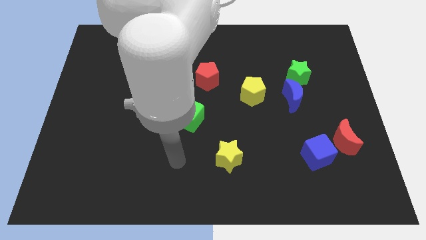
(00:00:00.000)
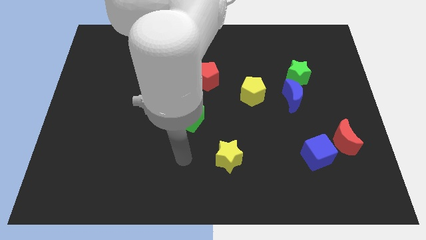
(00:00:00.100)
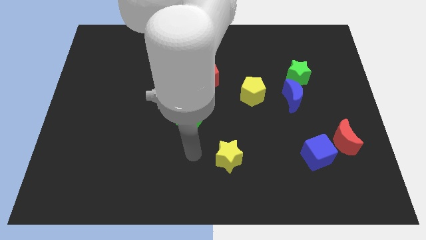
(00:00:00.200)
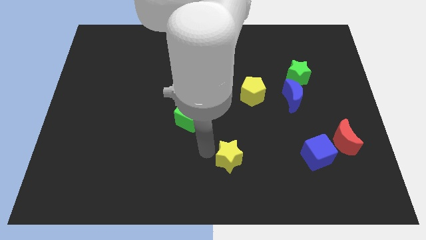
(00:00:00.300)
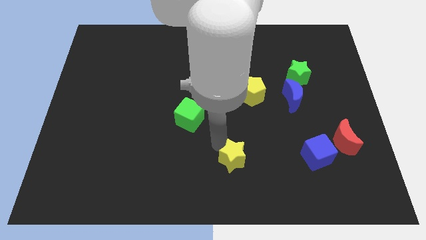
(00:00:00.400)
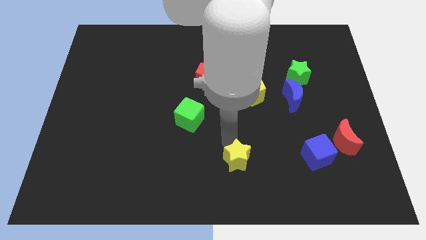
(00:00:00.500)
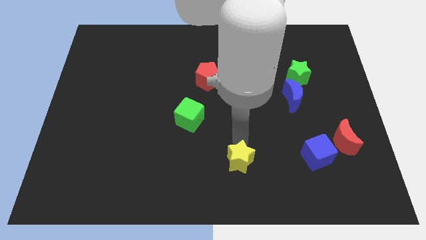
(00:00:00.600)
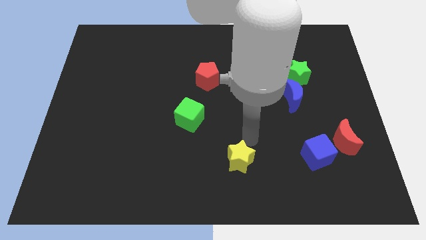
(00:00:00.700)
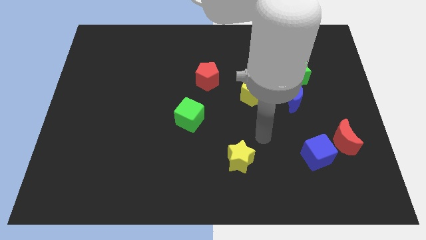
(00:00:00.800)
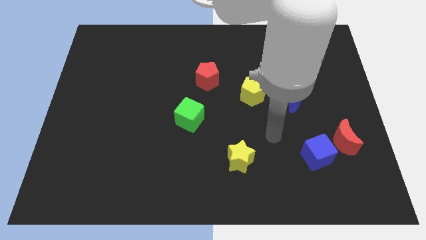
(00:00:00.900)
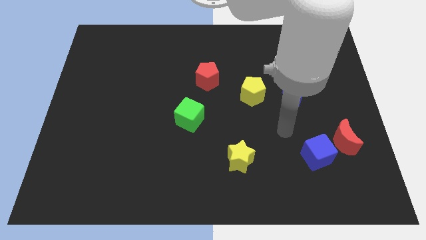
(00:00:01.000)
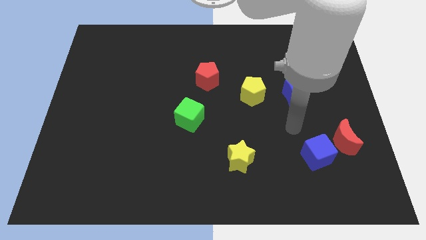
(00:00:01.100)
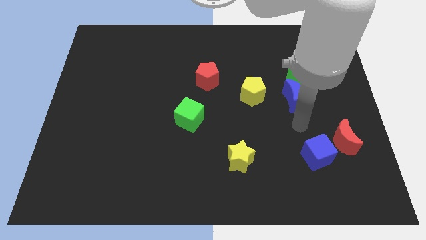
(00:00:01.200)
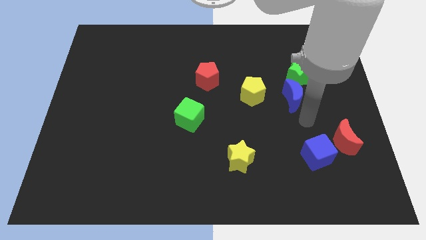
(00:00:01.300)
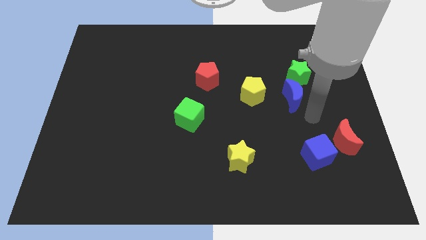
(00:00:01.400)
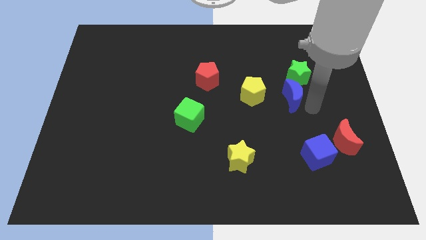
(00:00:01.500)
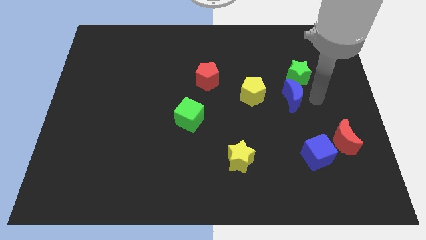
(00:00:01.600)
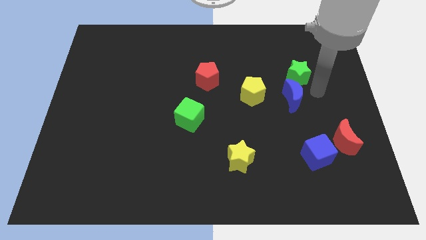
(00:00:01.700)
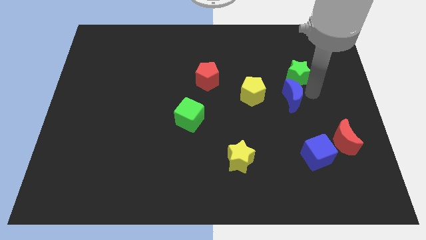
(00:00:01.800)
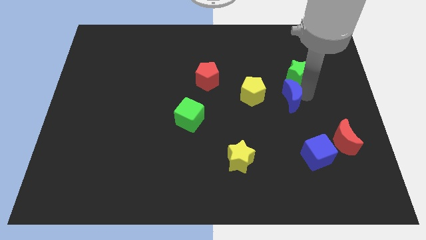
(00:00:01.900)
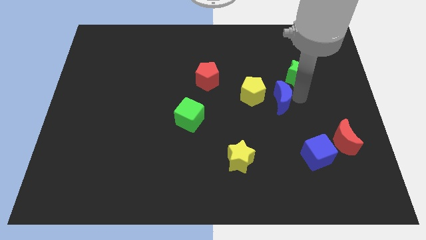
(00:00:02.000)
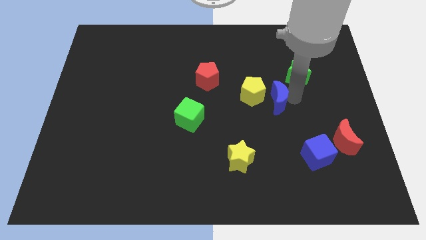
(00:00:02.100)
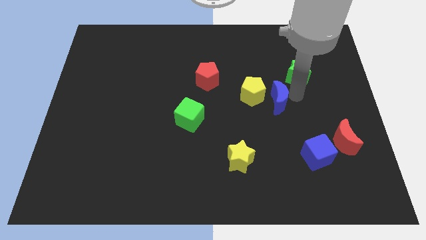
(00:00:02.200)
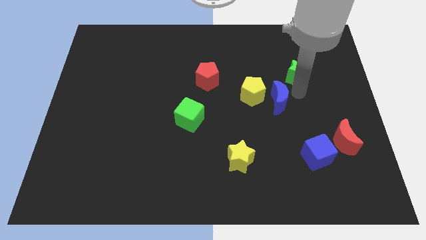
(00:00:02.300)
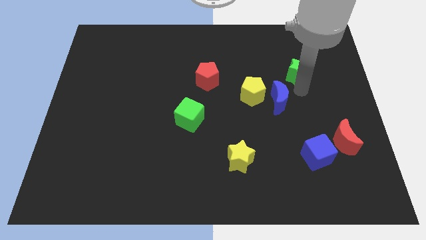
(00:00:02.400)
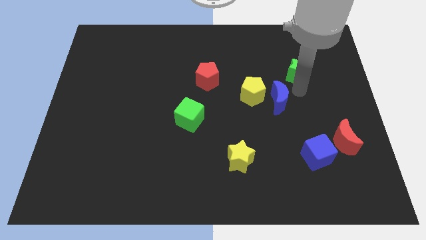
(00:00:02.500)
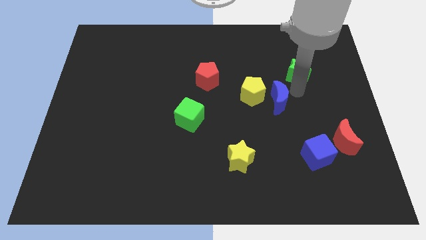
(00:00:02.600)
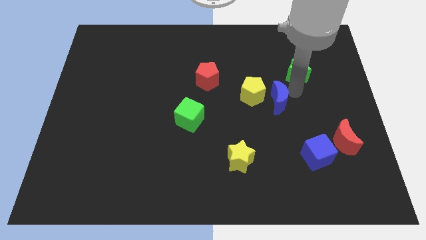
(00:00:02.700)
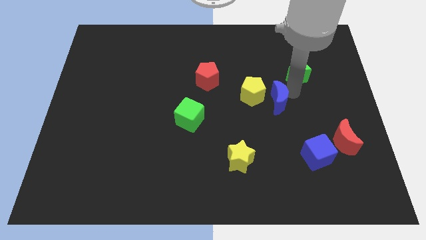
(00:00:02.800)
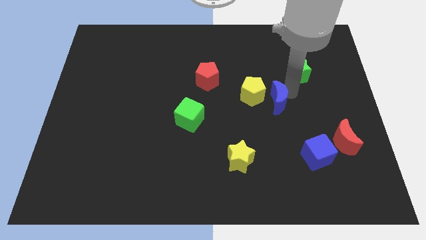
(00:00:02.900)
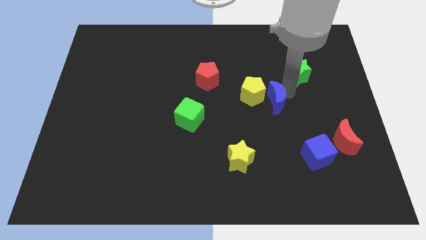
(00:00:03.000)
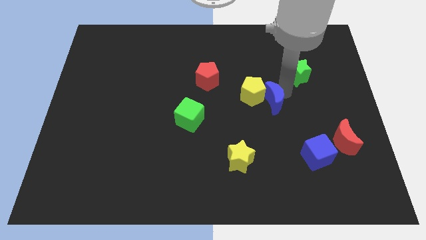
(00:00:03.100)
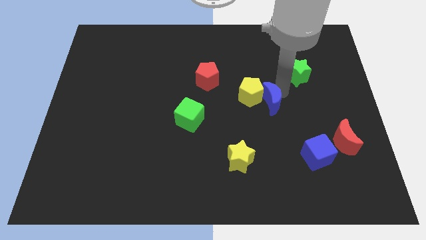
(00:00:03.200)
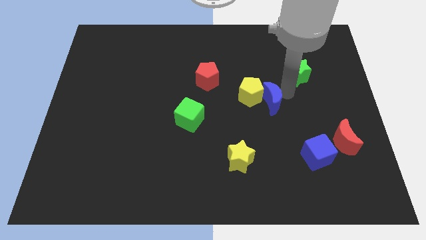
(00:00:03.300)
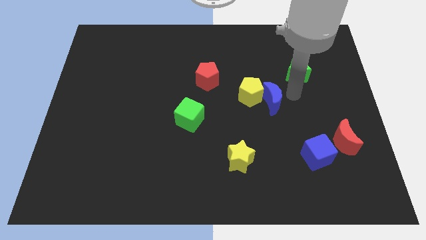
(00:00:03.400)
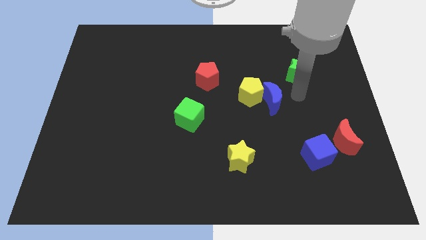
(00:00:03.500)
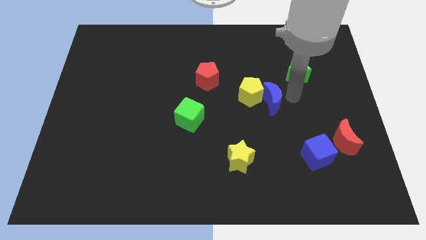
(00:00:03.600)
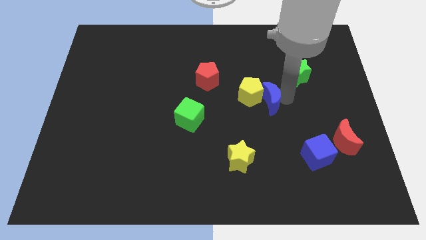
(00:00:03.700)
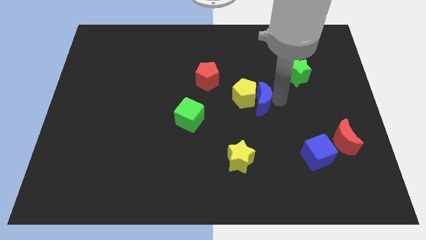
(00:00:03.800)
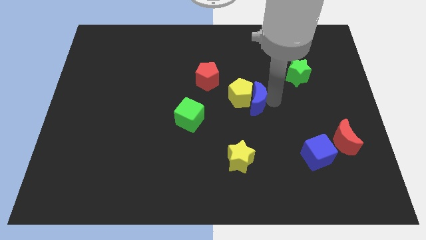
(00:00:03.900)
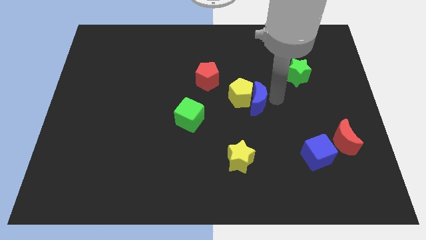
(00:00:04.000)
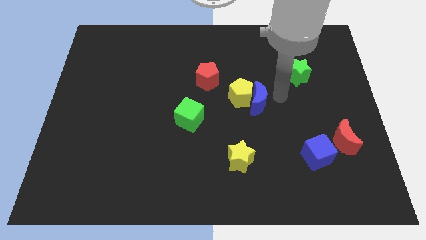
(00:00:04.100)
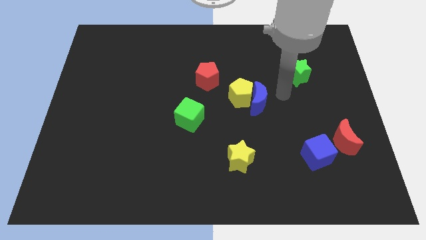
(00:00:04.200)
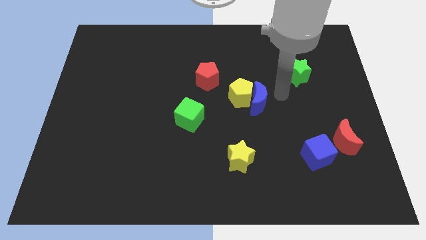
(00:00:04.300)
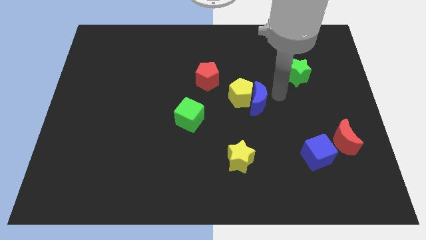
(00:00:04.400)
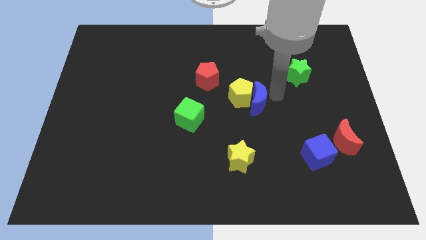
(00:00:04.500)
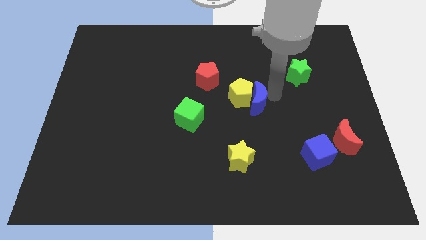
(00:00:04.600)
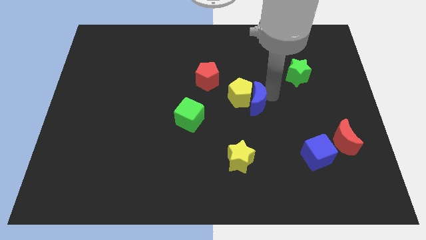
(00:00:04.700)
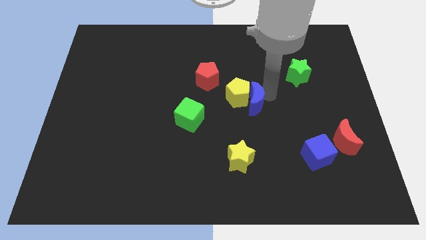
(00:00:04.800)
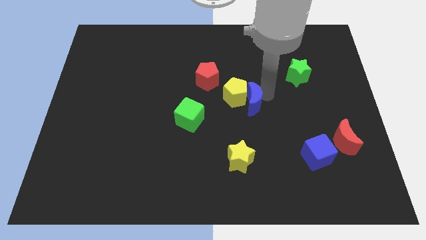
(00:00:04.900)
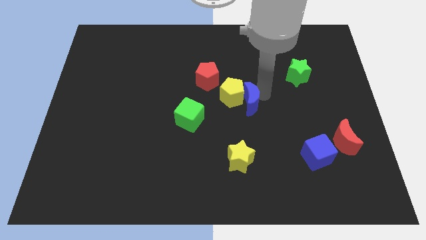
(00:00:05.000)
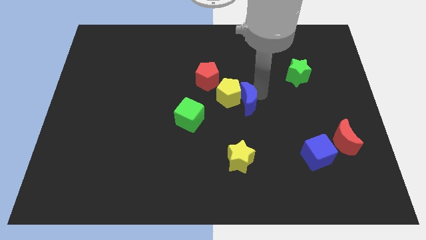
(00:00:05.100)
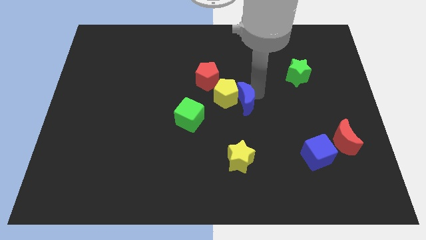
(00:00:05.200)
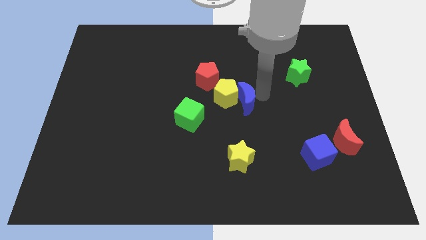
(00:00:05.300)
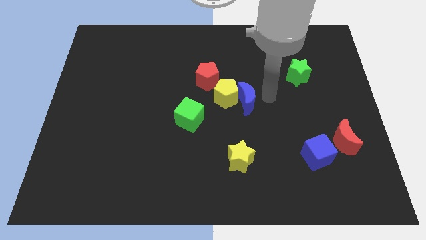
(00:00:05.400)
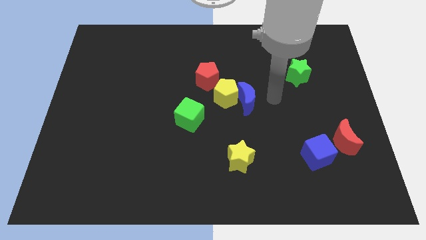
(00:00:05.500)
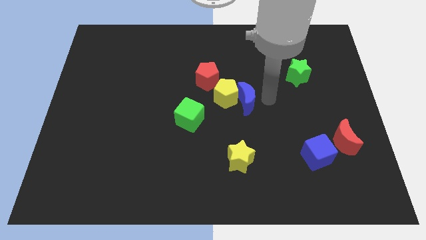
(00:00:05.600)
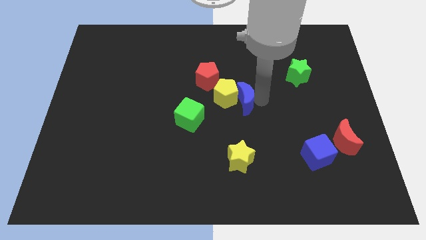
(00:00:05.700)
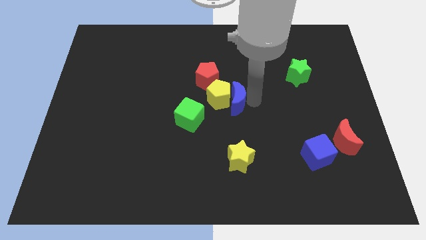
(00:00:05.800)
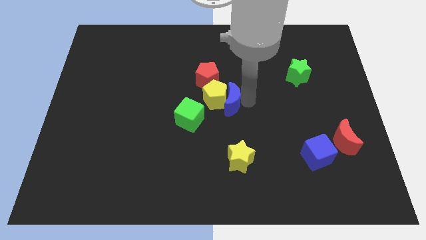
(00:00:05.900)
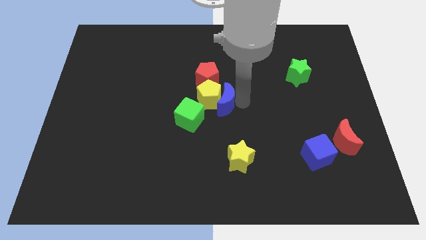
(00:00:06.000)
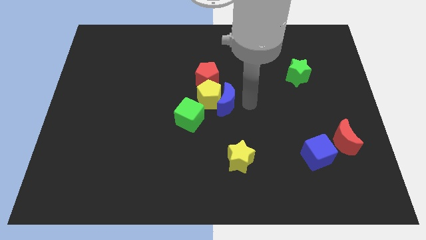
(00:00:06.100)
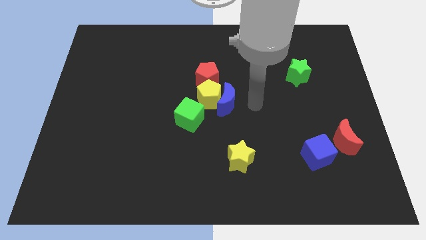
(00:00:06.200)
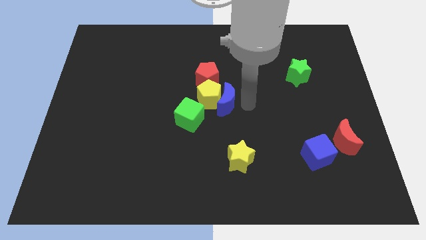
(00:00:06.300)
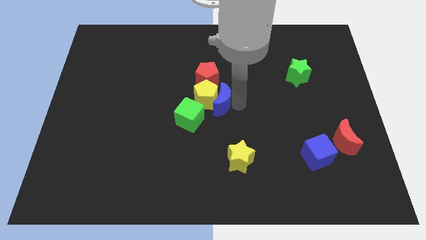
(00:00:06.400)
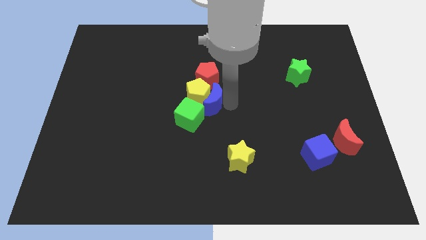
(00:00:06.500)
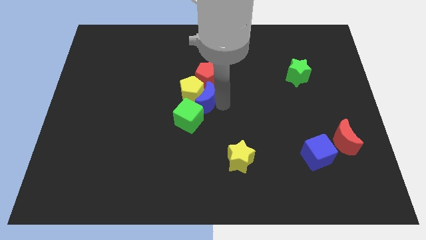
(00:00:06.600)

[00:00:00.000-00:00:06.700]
push the blue moon to the left

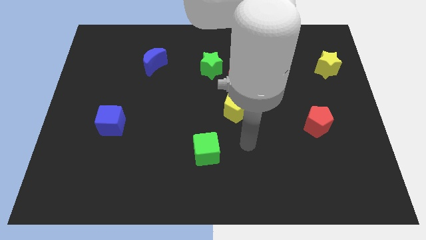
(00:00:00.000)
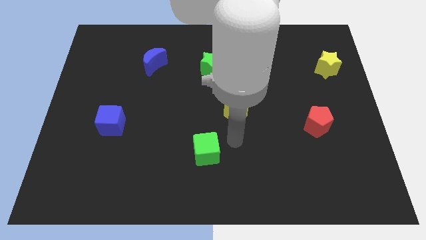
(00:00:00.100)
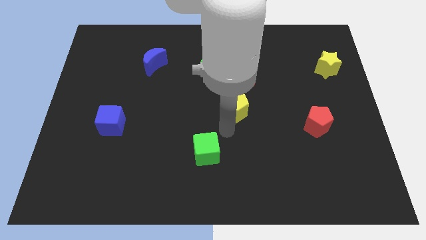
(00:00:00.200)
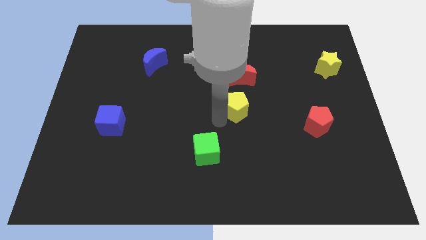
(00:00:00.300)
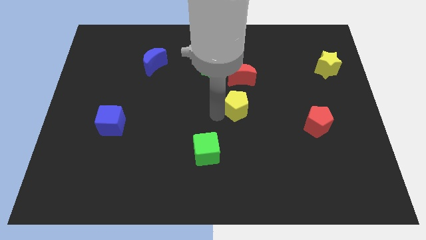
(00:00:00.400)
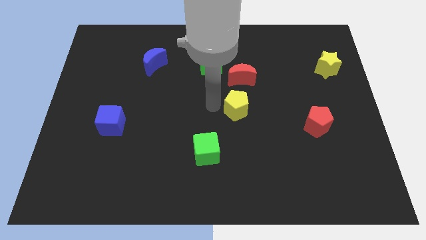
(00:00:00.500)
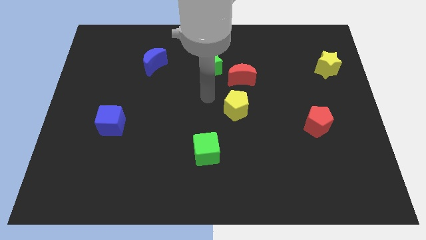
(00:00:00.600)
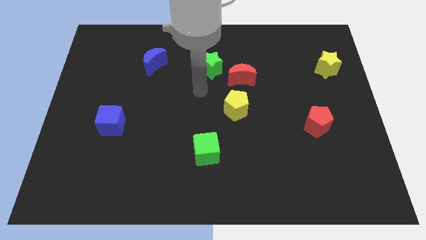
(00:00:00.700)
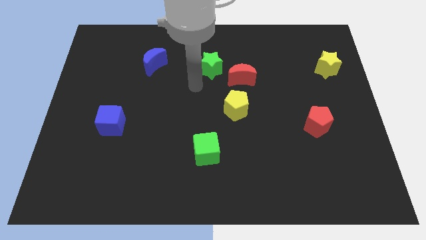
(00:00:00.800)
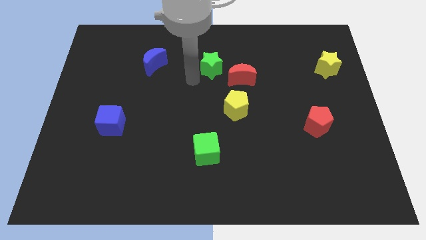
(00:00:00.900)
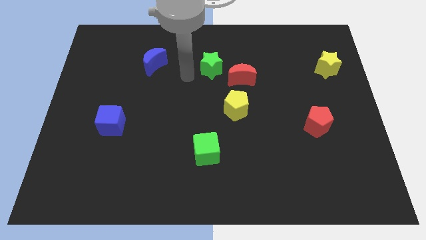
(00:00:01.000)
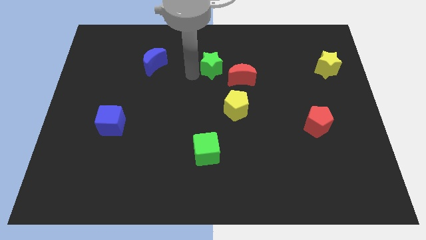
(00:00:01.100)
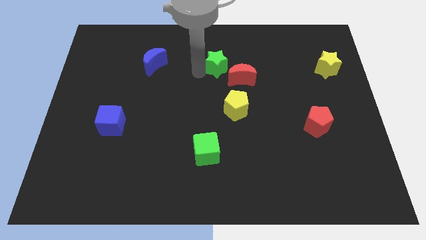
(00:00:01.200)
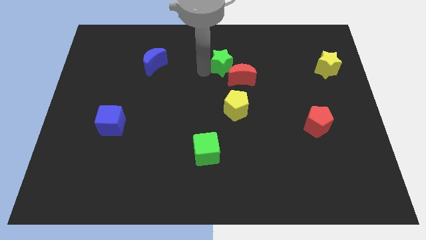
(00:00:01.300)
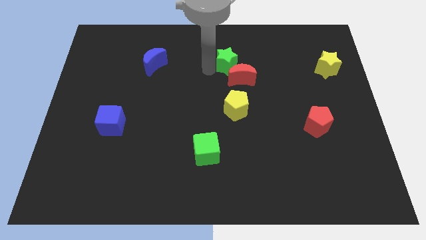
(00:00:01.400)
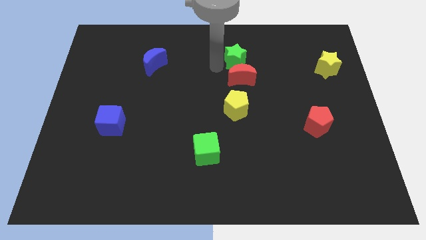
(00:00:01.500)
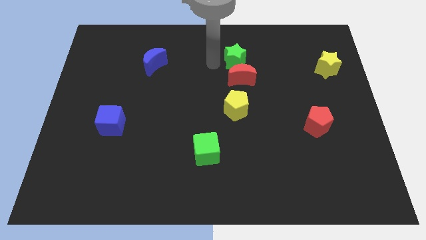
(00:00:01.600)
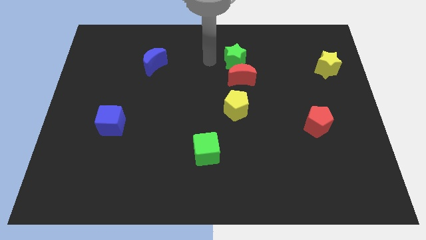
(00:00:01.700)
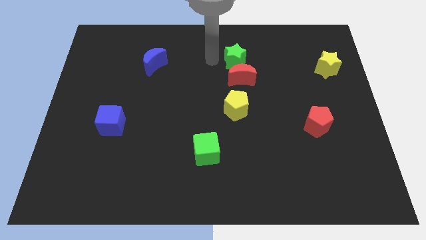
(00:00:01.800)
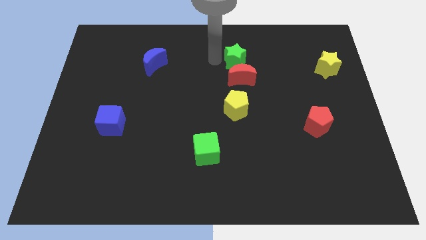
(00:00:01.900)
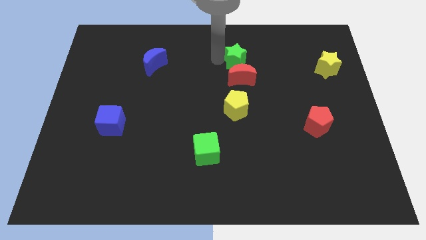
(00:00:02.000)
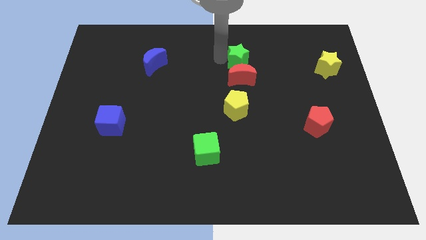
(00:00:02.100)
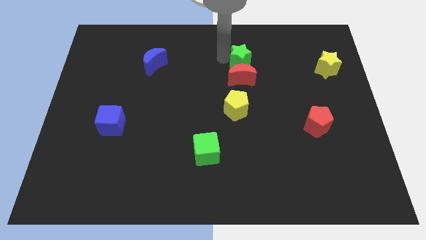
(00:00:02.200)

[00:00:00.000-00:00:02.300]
push the green star a bit to the right
